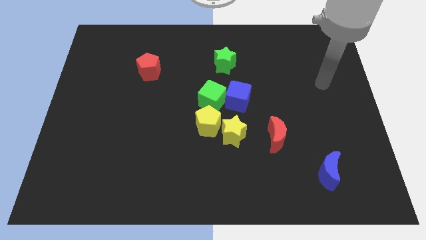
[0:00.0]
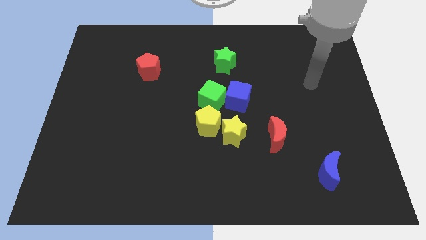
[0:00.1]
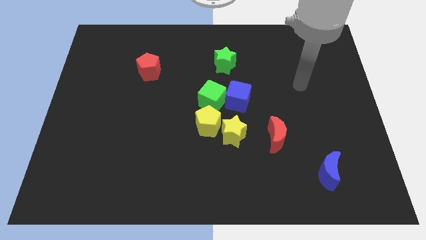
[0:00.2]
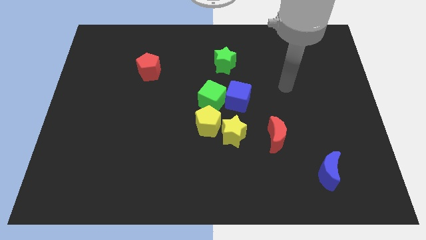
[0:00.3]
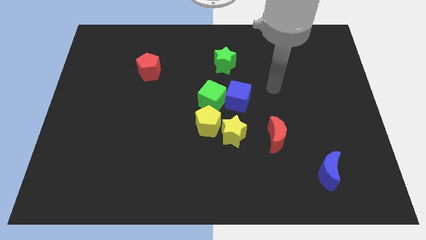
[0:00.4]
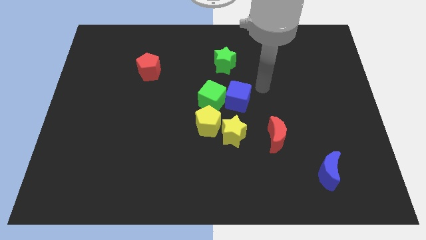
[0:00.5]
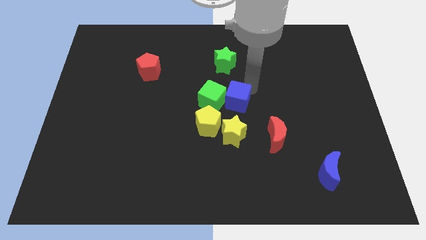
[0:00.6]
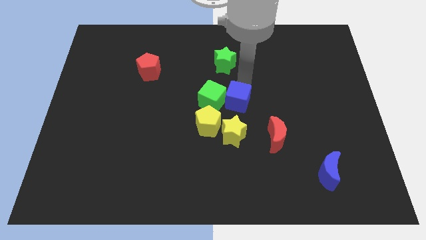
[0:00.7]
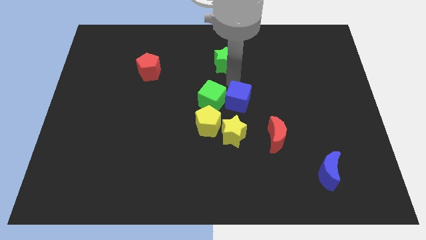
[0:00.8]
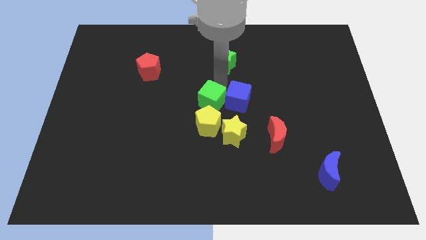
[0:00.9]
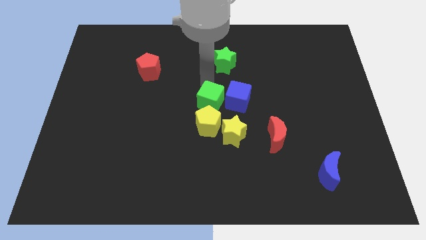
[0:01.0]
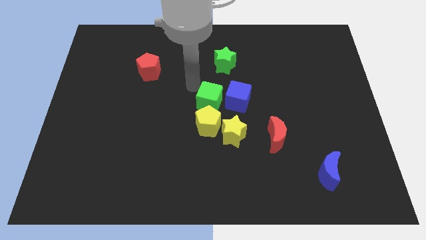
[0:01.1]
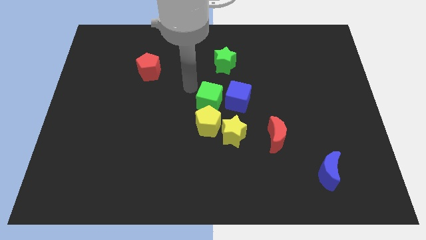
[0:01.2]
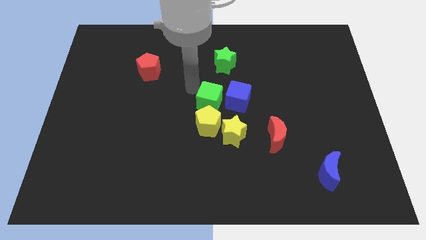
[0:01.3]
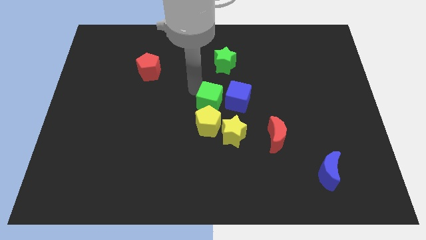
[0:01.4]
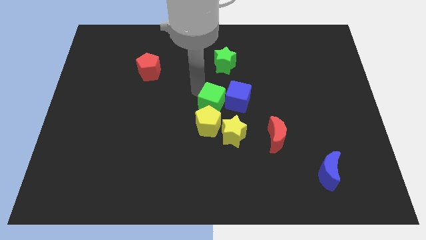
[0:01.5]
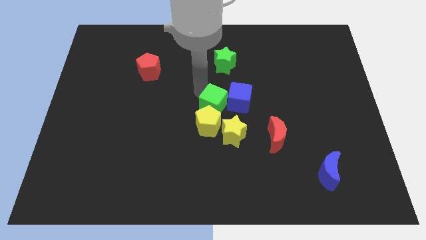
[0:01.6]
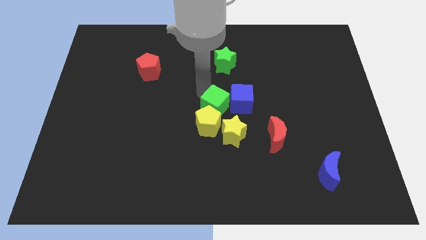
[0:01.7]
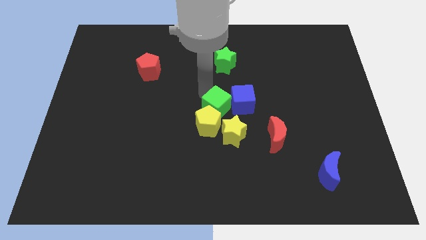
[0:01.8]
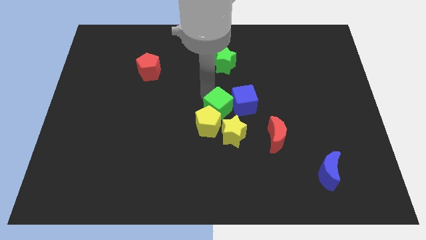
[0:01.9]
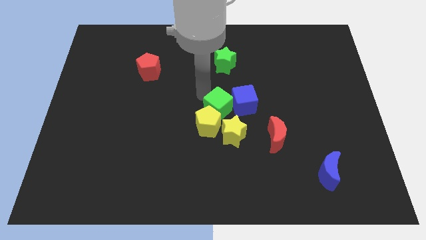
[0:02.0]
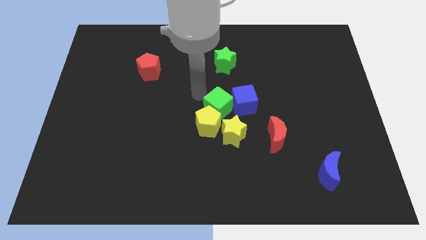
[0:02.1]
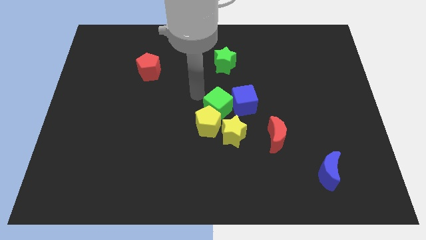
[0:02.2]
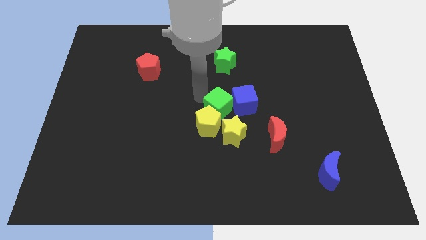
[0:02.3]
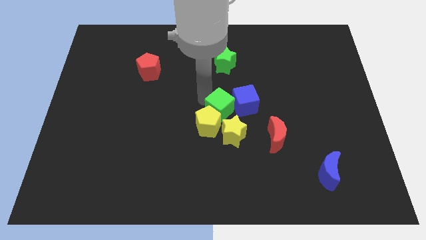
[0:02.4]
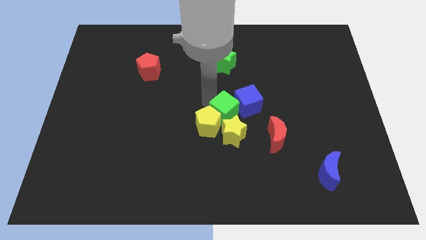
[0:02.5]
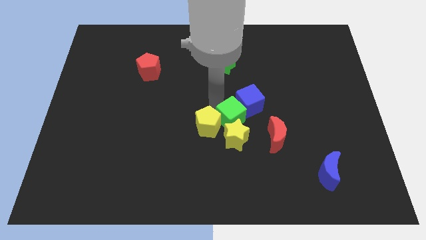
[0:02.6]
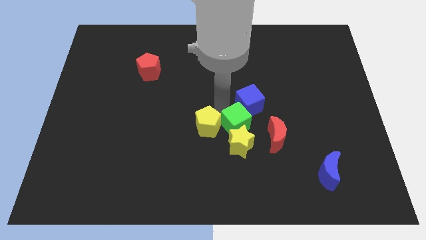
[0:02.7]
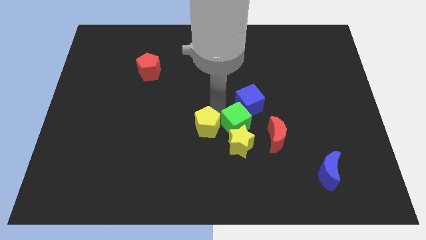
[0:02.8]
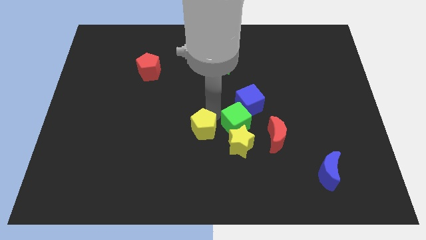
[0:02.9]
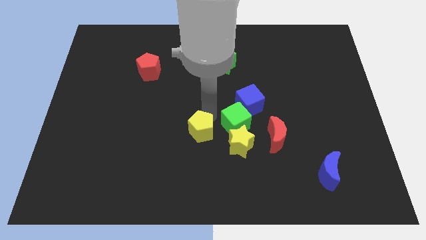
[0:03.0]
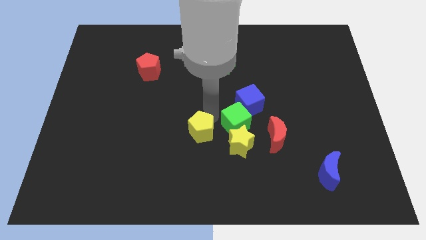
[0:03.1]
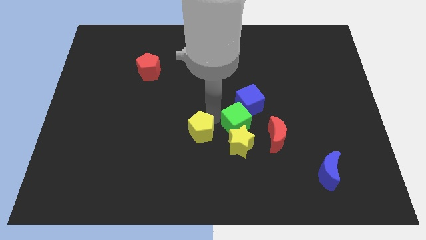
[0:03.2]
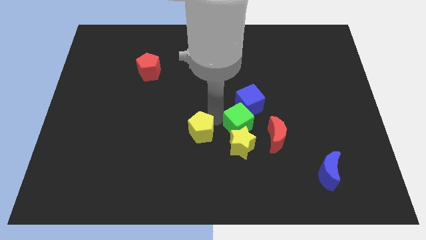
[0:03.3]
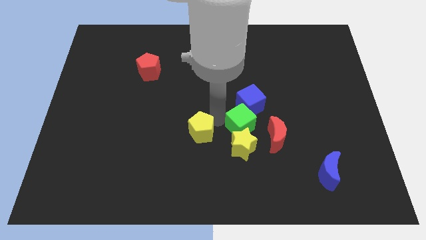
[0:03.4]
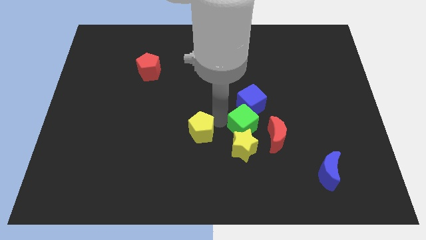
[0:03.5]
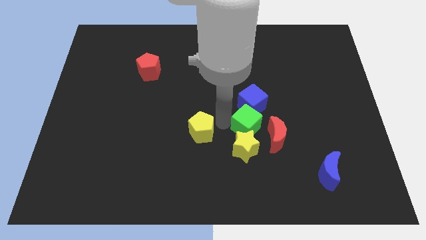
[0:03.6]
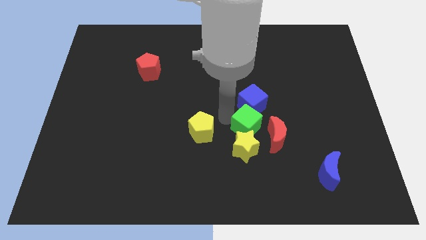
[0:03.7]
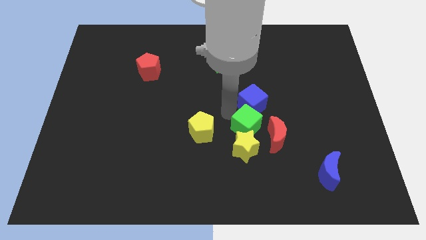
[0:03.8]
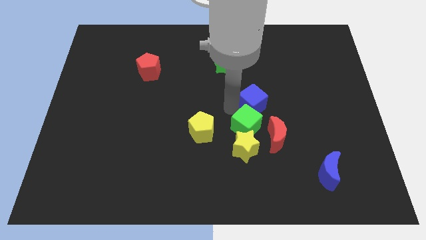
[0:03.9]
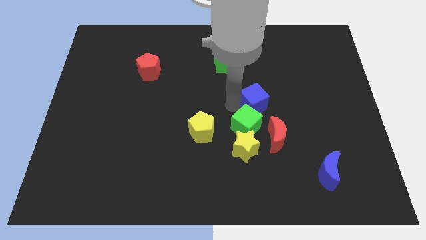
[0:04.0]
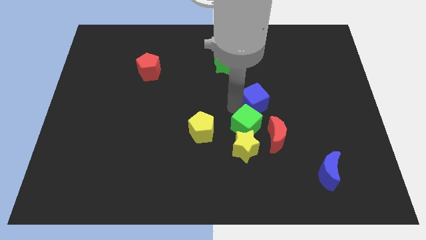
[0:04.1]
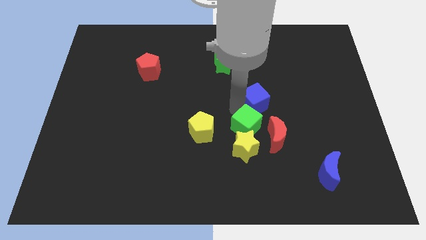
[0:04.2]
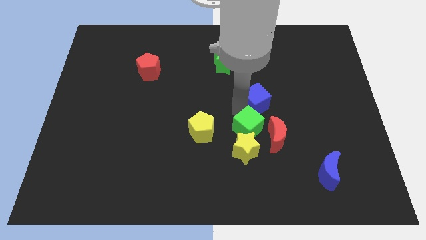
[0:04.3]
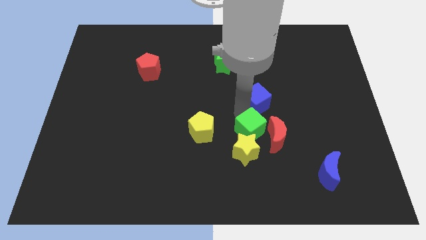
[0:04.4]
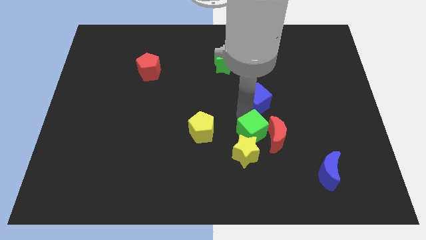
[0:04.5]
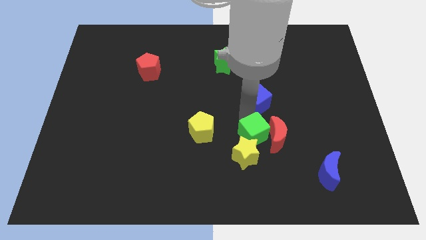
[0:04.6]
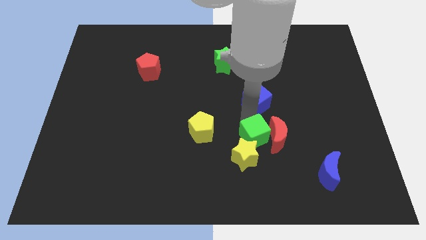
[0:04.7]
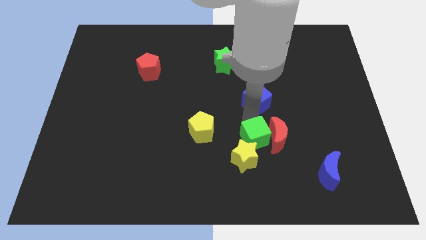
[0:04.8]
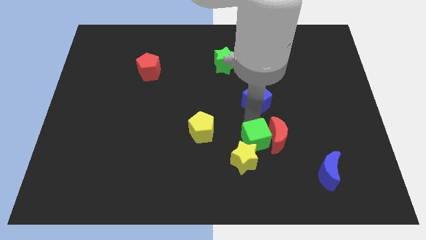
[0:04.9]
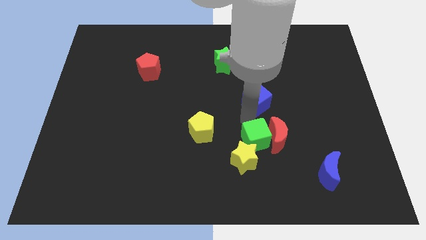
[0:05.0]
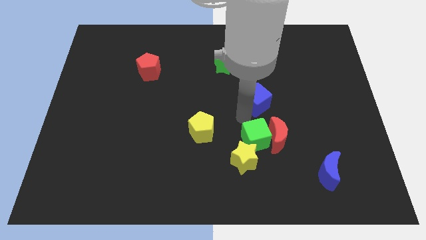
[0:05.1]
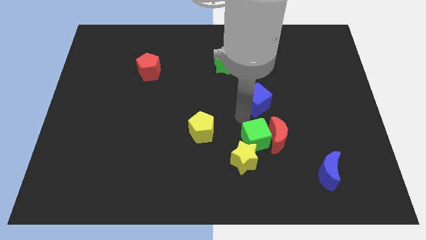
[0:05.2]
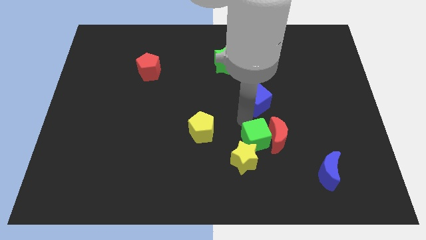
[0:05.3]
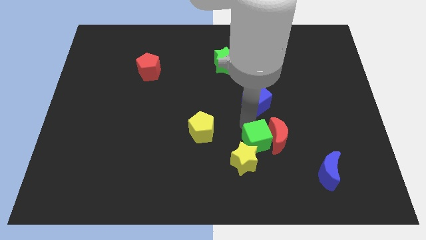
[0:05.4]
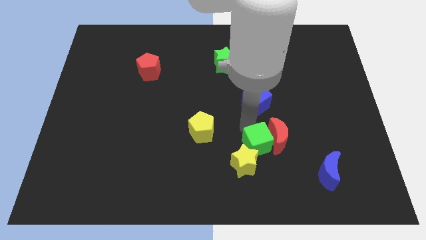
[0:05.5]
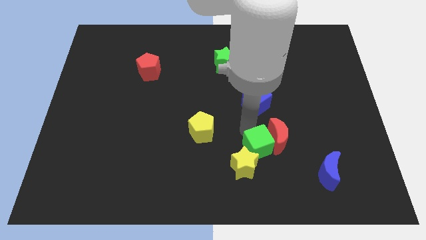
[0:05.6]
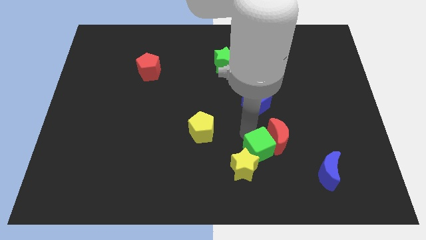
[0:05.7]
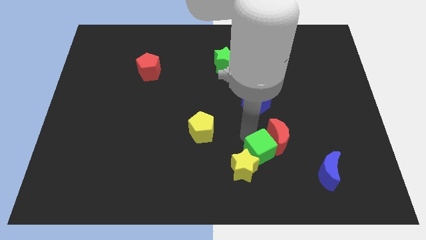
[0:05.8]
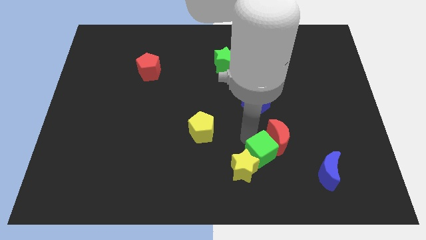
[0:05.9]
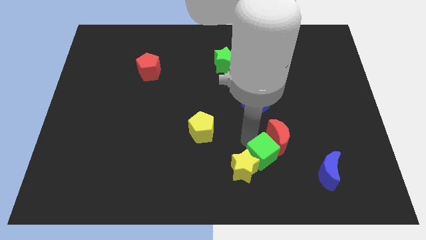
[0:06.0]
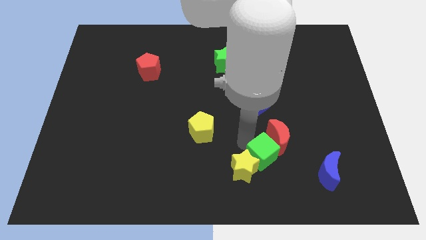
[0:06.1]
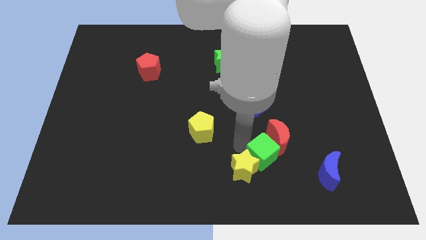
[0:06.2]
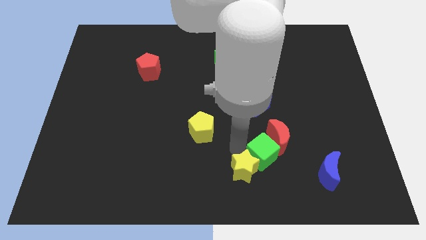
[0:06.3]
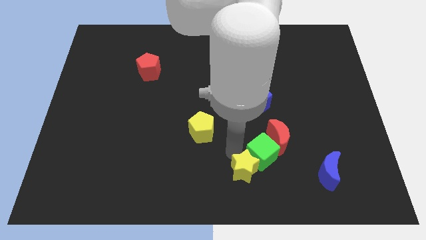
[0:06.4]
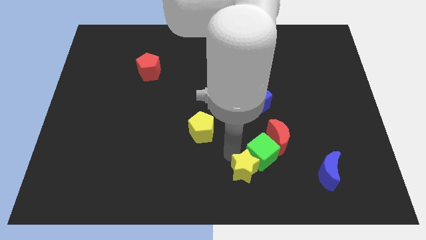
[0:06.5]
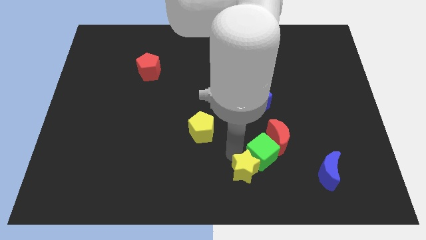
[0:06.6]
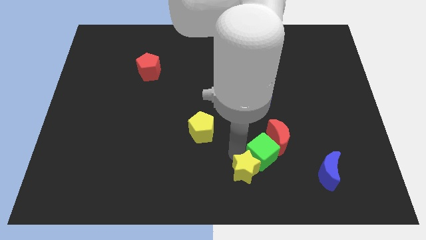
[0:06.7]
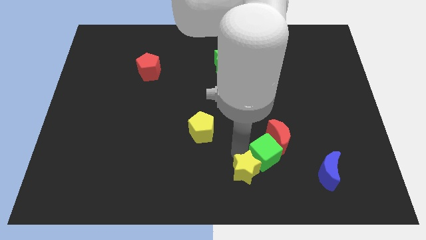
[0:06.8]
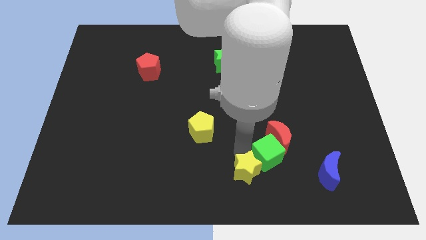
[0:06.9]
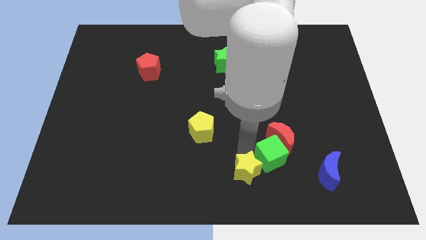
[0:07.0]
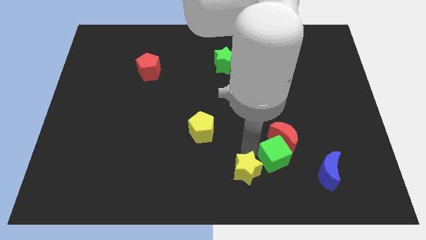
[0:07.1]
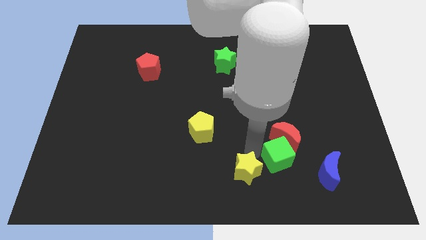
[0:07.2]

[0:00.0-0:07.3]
move the green cube to the top left side of the blue moon
